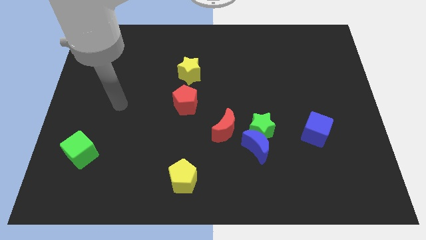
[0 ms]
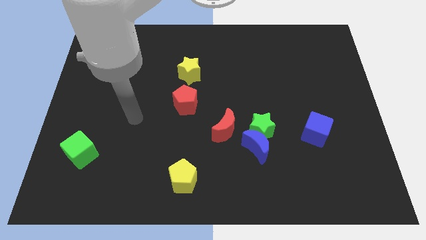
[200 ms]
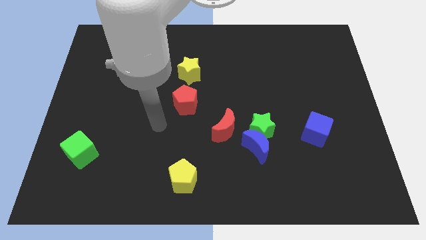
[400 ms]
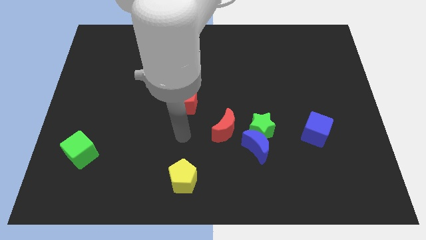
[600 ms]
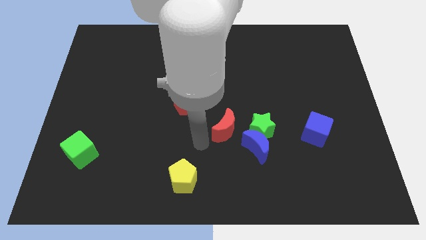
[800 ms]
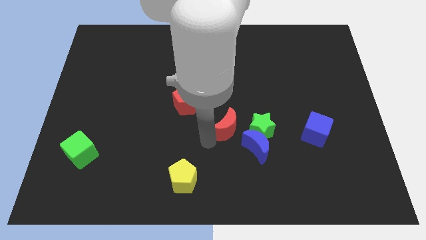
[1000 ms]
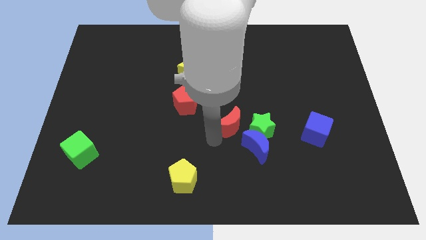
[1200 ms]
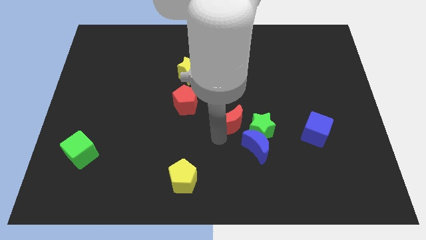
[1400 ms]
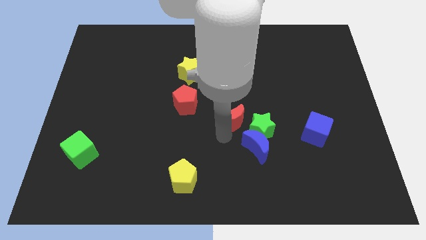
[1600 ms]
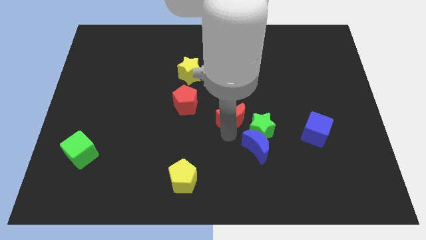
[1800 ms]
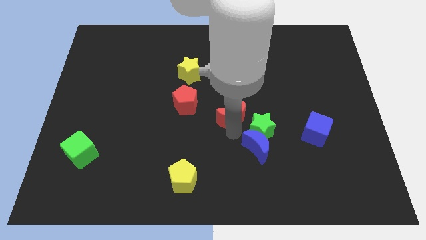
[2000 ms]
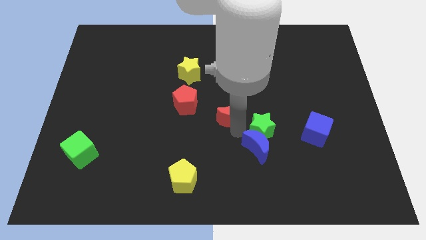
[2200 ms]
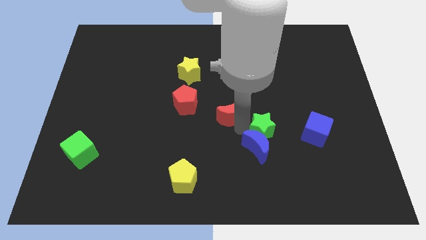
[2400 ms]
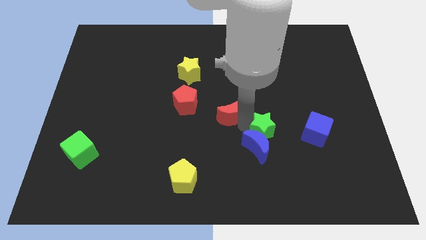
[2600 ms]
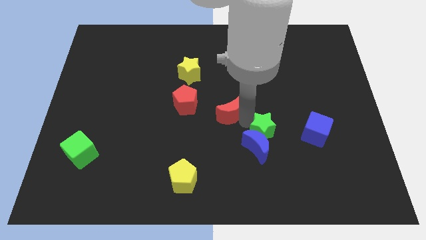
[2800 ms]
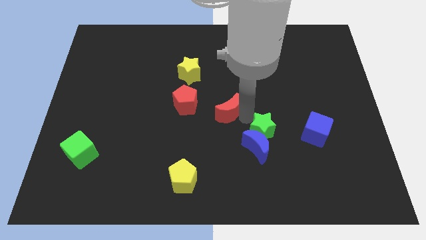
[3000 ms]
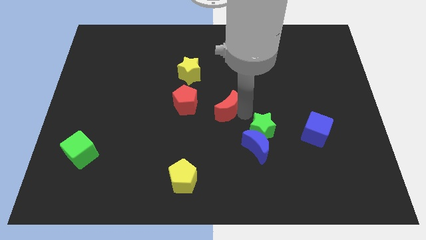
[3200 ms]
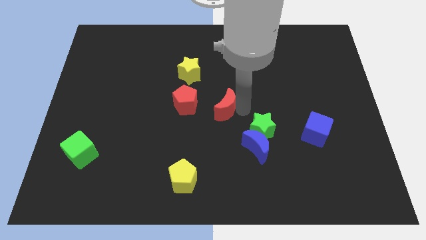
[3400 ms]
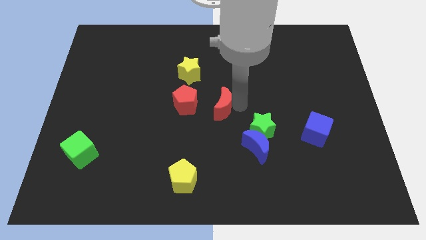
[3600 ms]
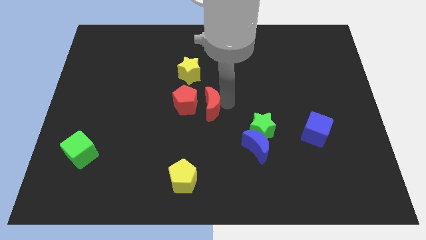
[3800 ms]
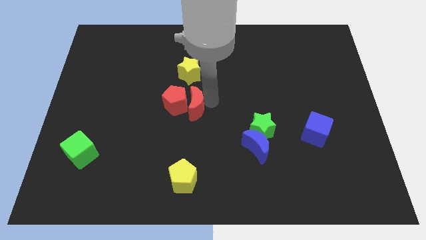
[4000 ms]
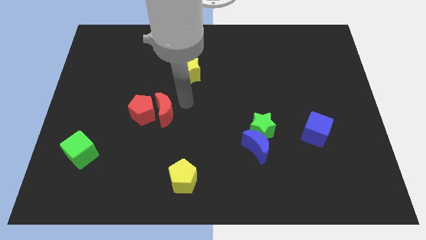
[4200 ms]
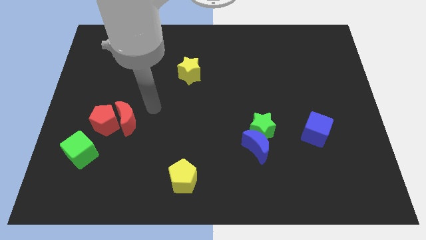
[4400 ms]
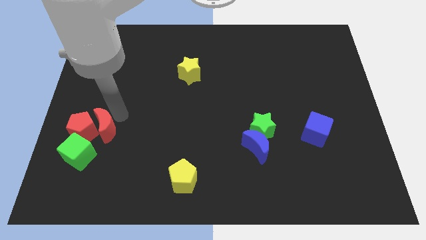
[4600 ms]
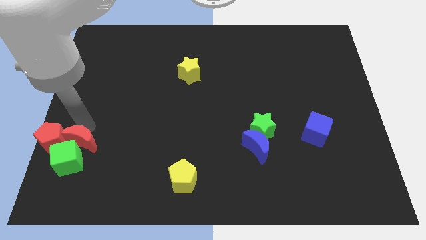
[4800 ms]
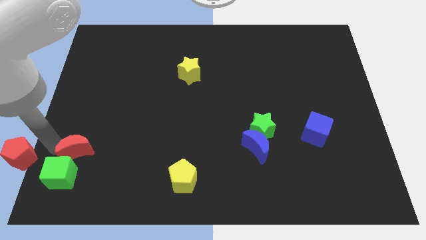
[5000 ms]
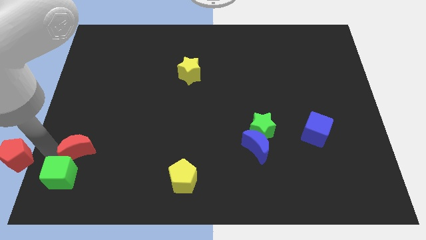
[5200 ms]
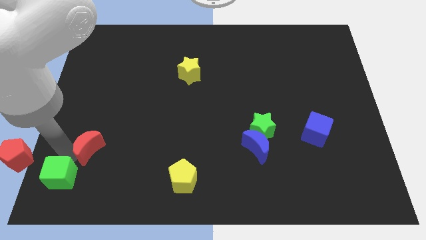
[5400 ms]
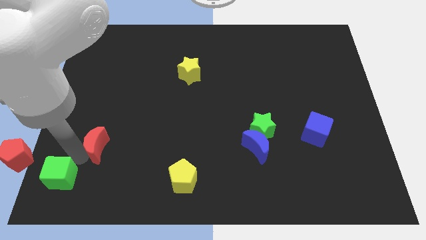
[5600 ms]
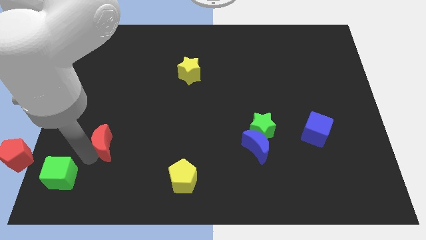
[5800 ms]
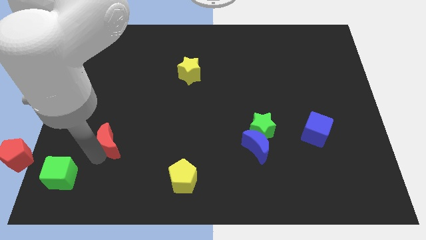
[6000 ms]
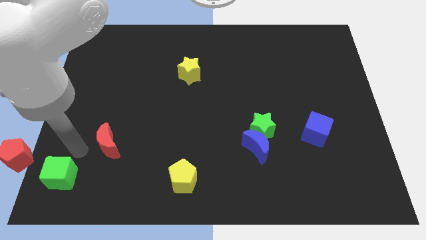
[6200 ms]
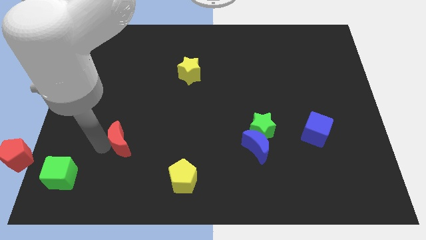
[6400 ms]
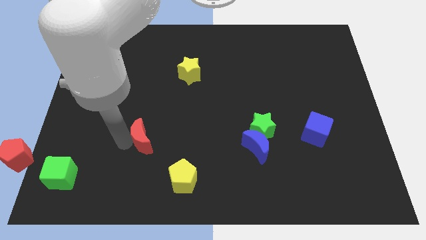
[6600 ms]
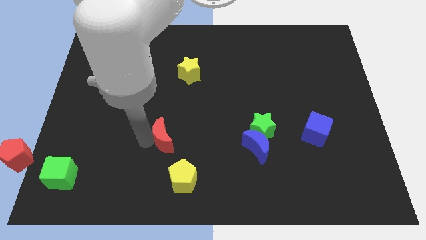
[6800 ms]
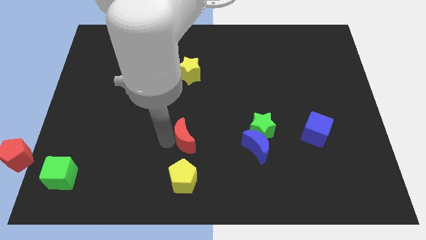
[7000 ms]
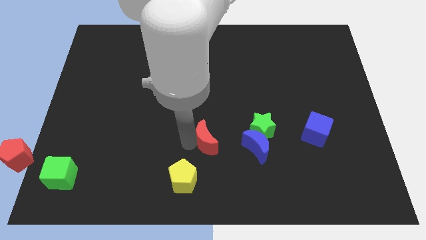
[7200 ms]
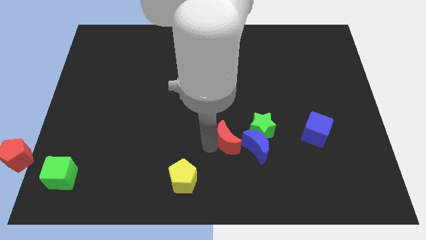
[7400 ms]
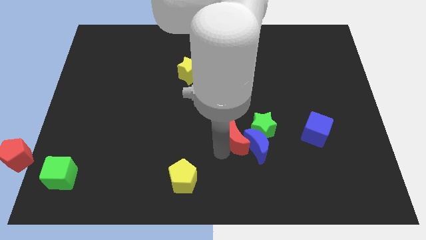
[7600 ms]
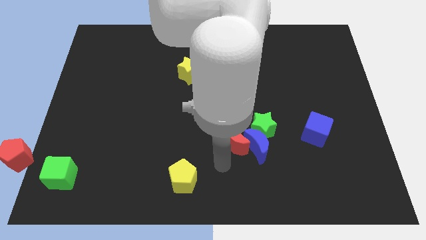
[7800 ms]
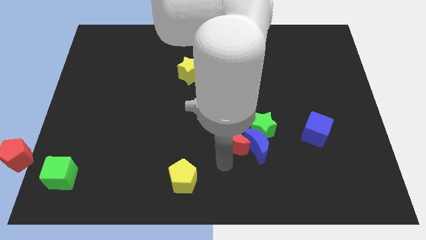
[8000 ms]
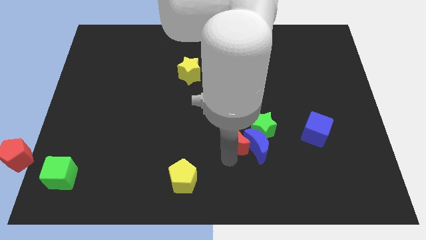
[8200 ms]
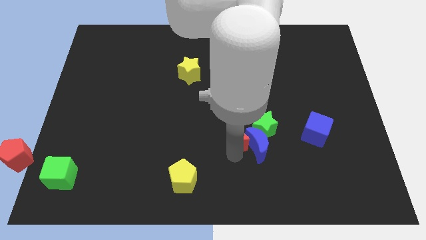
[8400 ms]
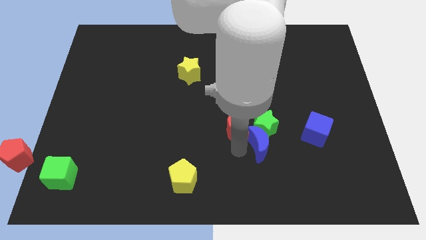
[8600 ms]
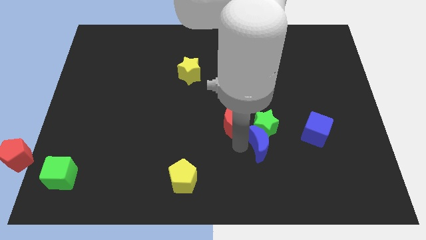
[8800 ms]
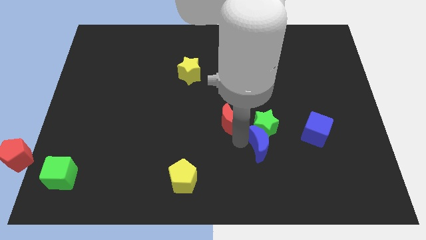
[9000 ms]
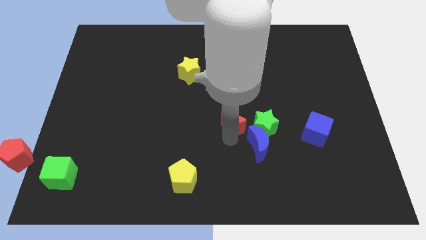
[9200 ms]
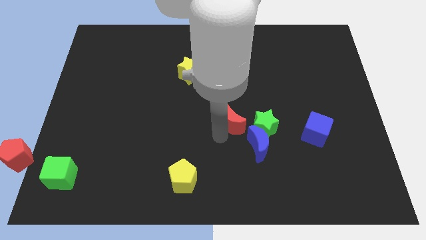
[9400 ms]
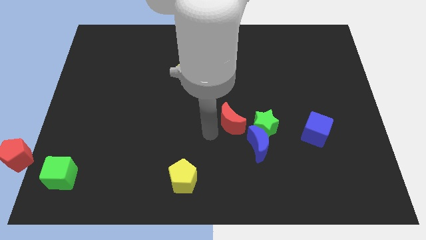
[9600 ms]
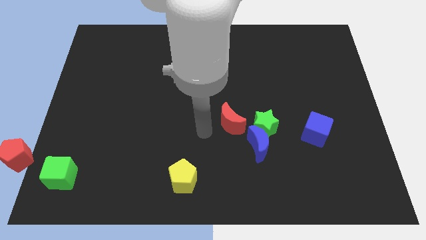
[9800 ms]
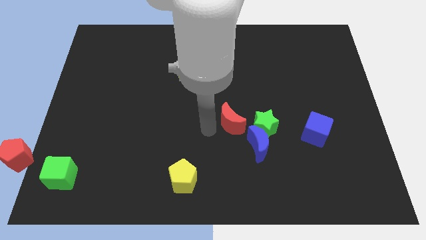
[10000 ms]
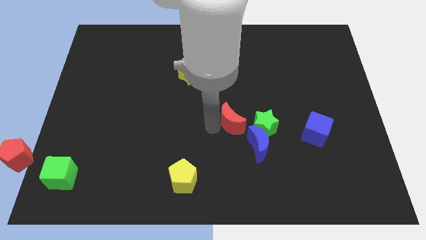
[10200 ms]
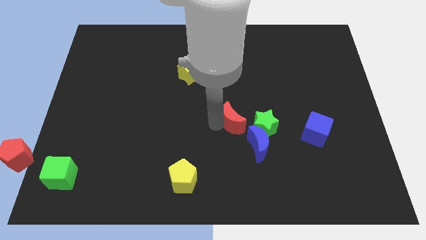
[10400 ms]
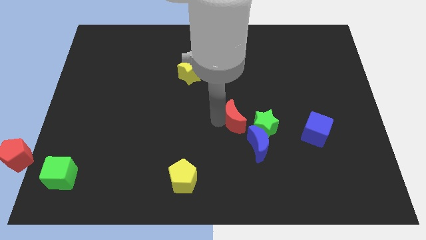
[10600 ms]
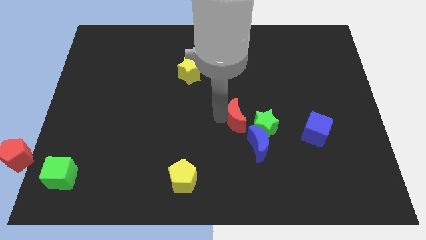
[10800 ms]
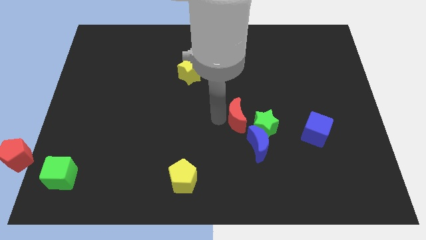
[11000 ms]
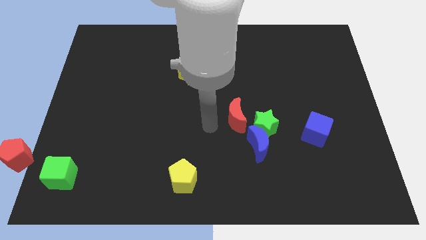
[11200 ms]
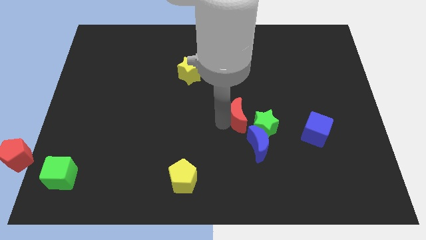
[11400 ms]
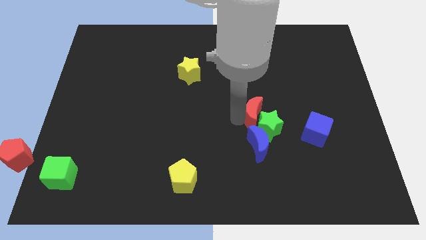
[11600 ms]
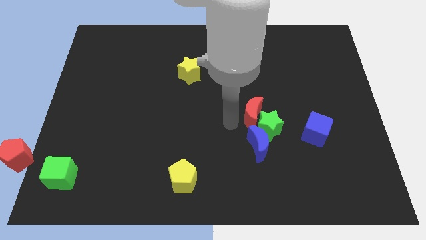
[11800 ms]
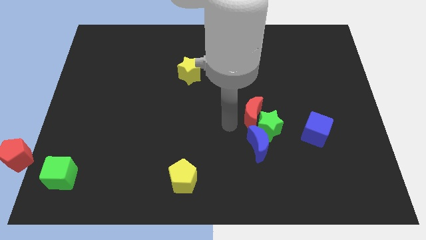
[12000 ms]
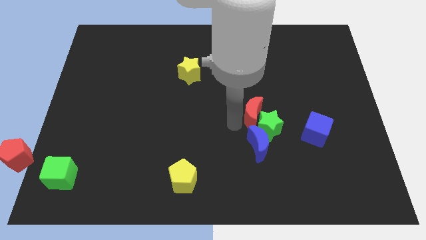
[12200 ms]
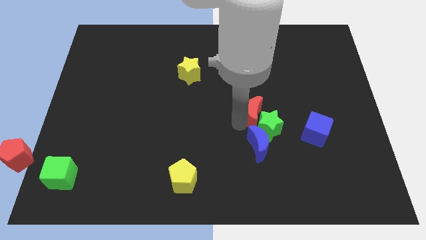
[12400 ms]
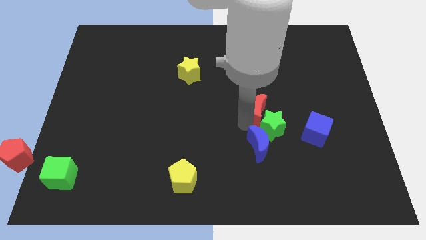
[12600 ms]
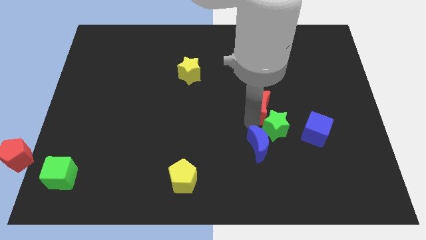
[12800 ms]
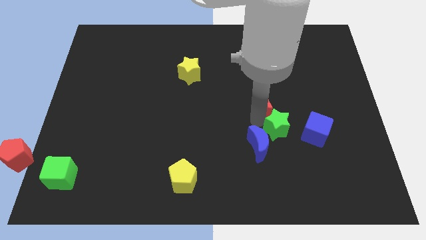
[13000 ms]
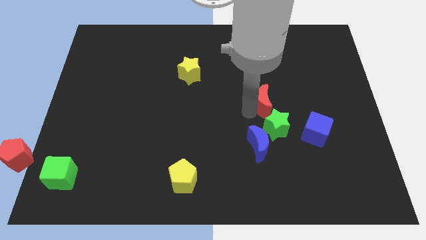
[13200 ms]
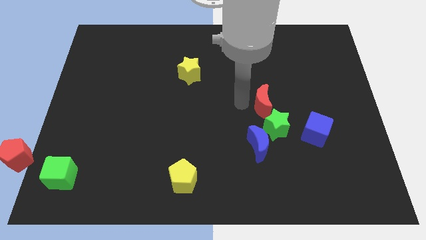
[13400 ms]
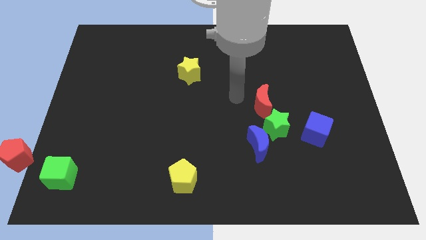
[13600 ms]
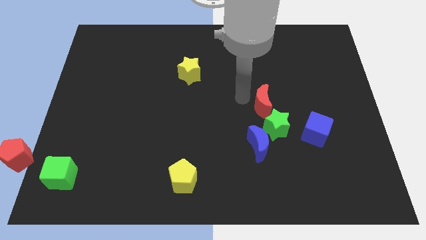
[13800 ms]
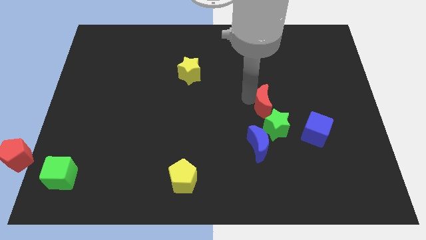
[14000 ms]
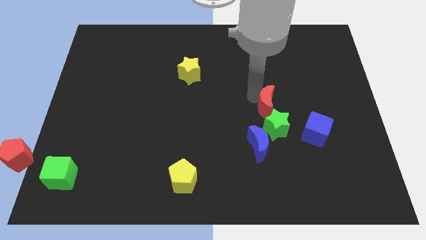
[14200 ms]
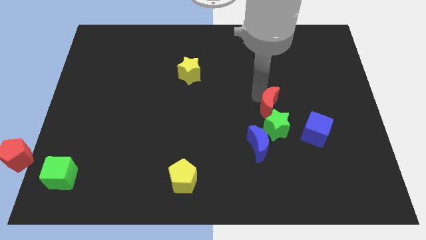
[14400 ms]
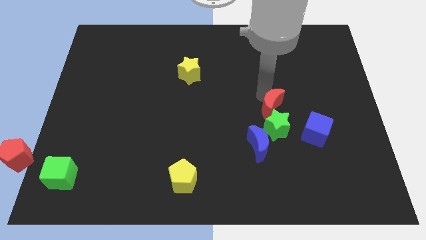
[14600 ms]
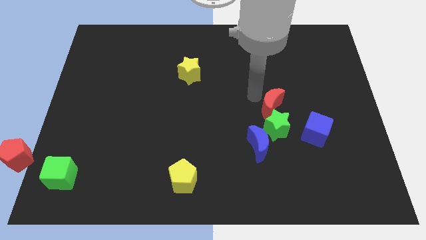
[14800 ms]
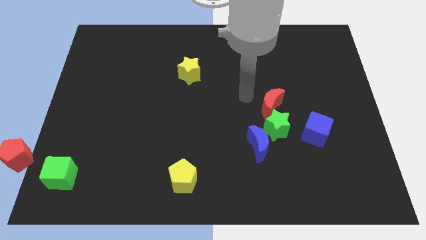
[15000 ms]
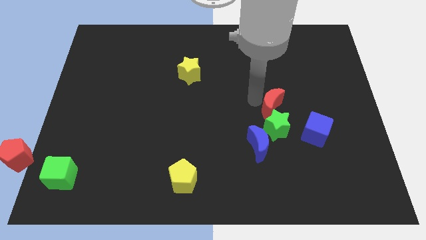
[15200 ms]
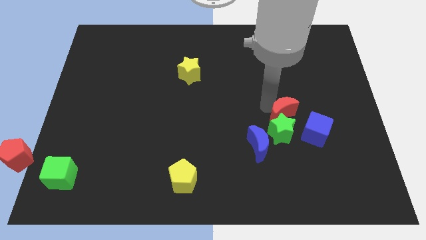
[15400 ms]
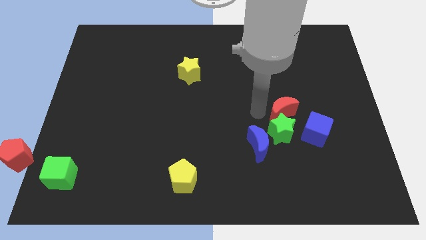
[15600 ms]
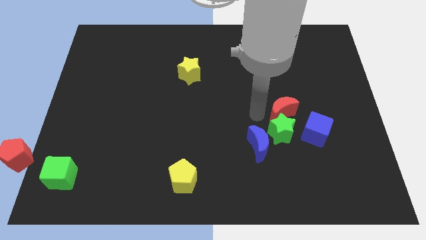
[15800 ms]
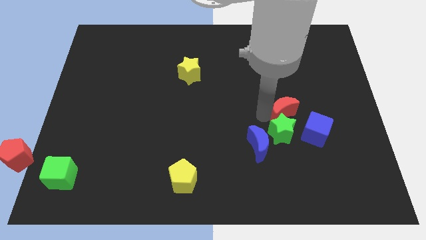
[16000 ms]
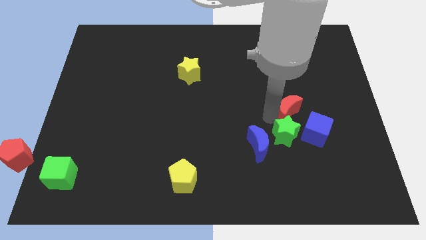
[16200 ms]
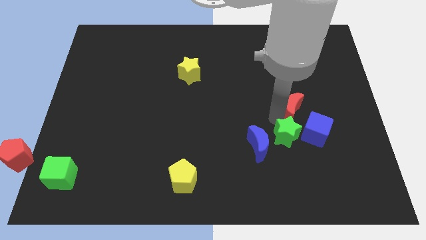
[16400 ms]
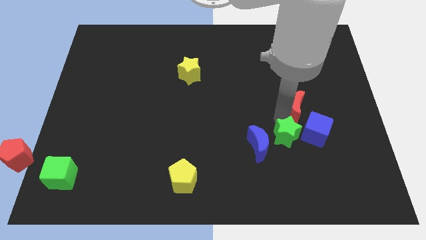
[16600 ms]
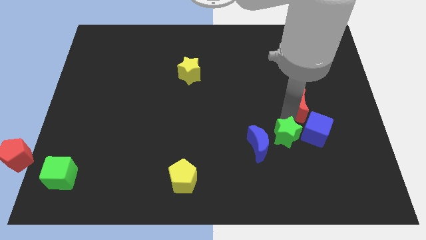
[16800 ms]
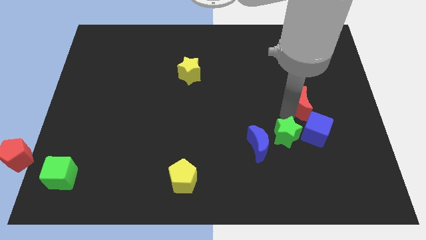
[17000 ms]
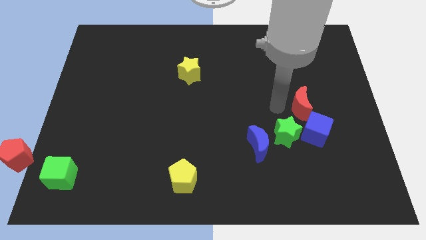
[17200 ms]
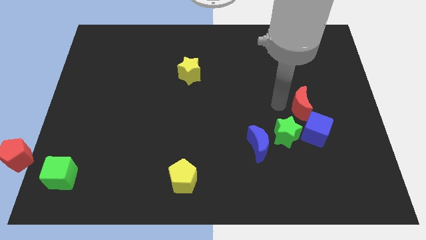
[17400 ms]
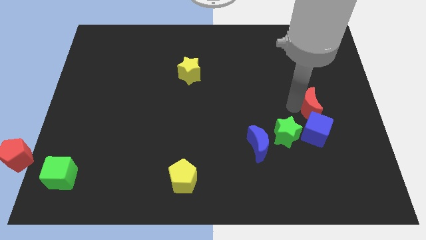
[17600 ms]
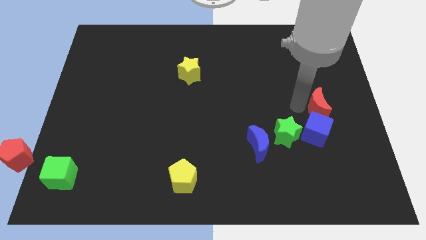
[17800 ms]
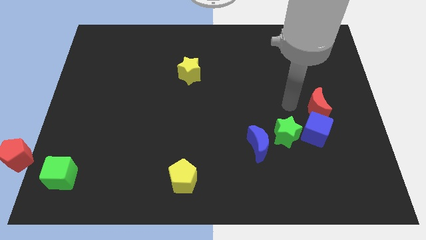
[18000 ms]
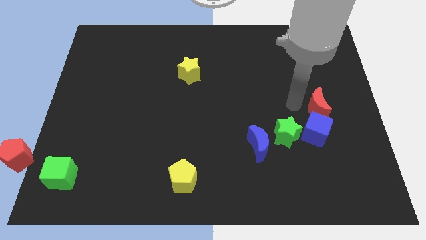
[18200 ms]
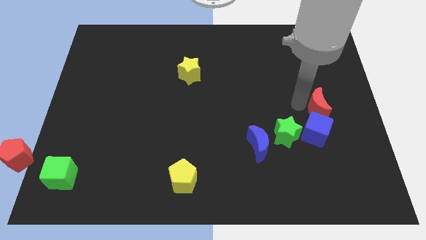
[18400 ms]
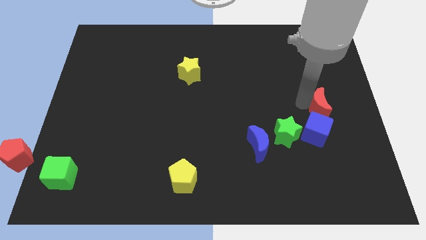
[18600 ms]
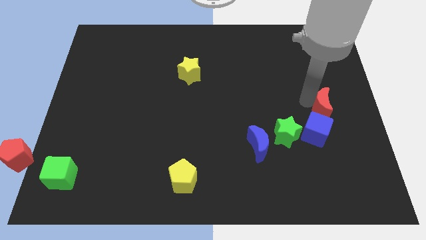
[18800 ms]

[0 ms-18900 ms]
push the red moon to the right side of the board
